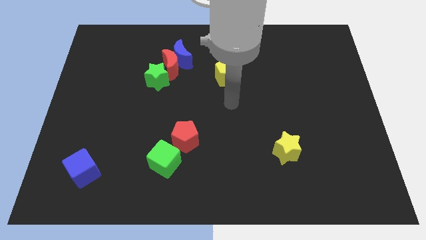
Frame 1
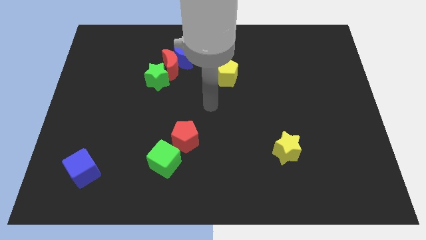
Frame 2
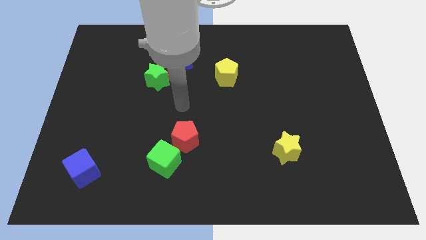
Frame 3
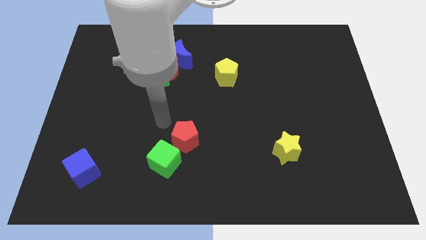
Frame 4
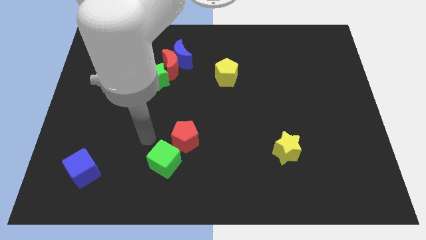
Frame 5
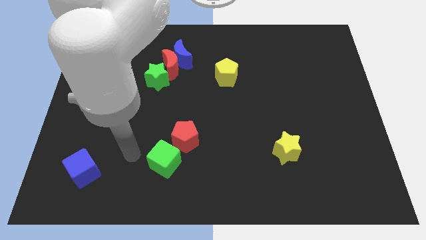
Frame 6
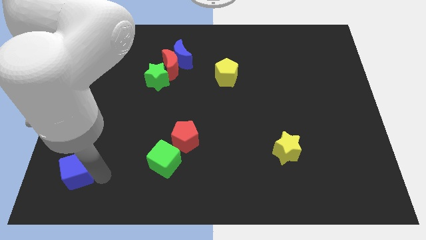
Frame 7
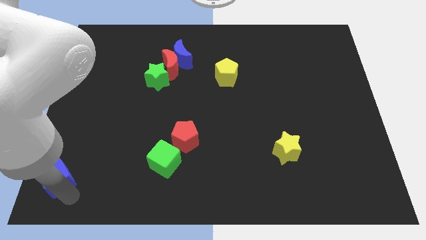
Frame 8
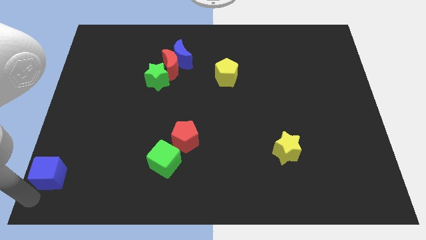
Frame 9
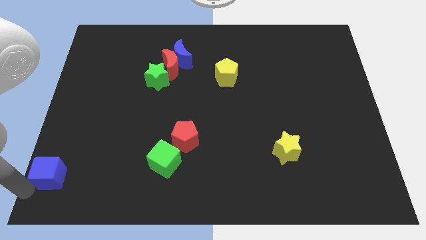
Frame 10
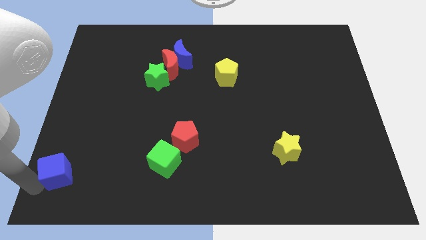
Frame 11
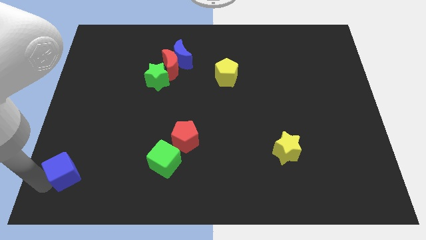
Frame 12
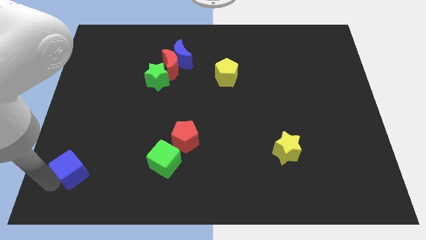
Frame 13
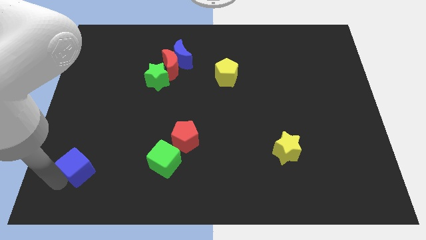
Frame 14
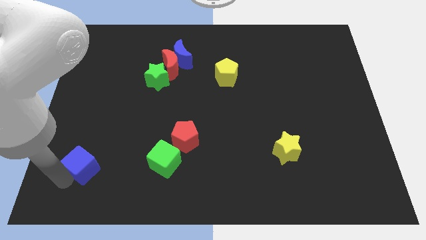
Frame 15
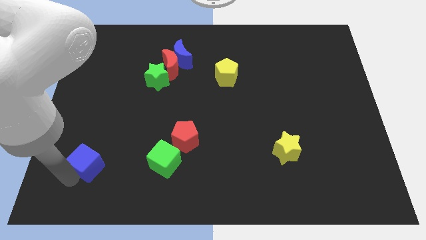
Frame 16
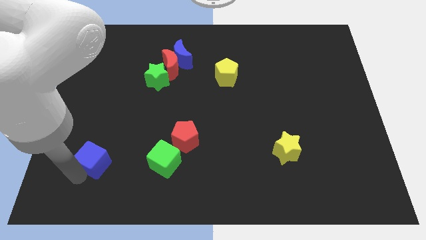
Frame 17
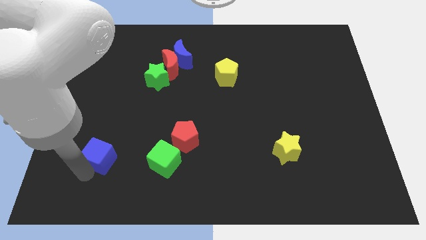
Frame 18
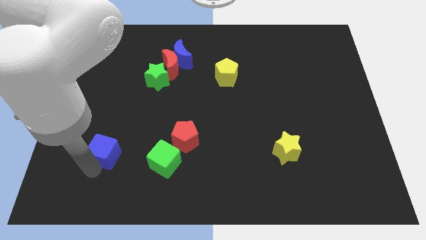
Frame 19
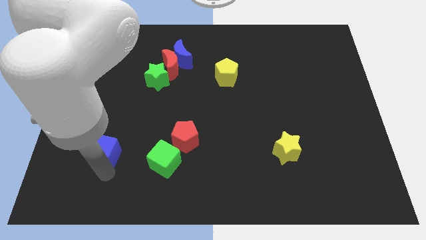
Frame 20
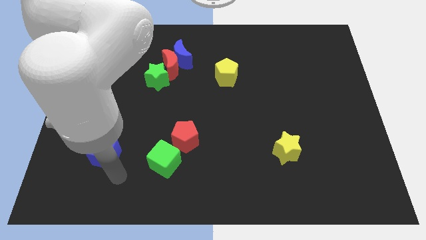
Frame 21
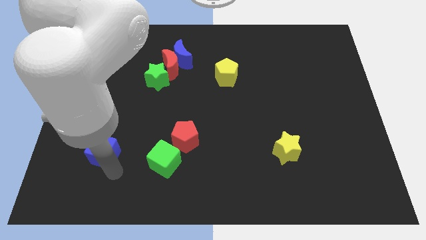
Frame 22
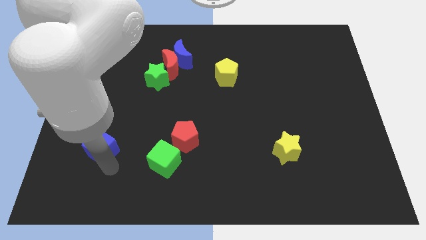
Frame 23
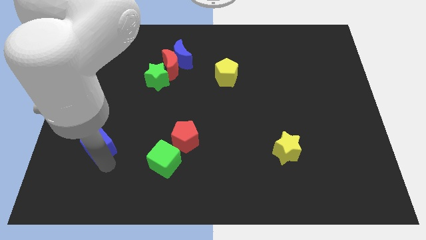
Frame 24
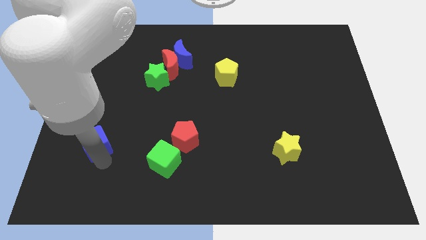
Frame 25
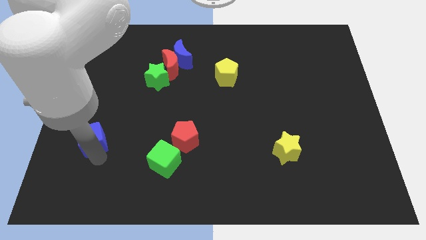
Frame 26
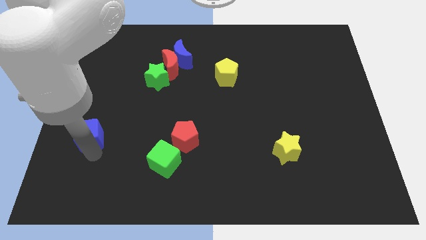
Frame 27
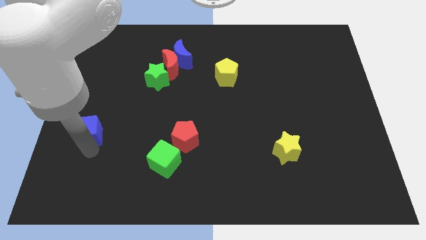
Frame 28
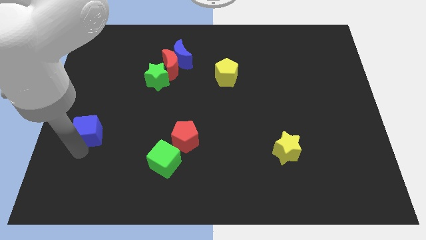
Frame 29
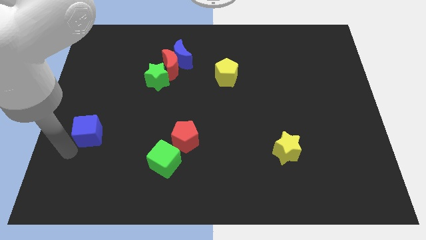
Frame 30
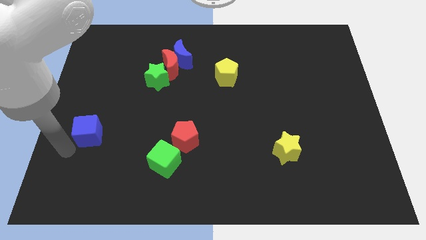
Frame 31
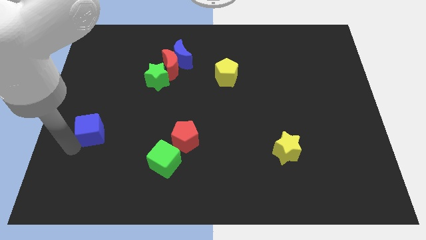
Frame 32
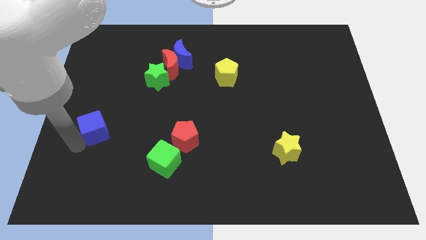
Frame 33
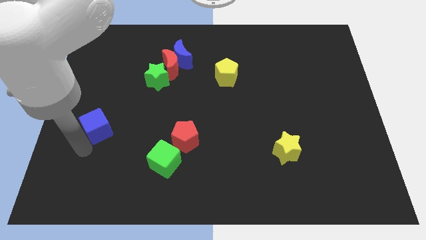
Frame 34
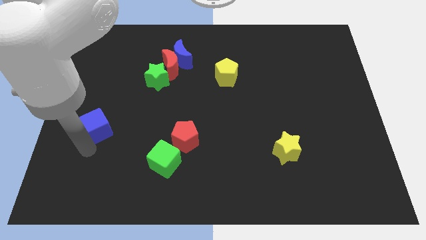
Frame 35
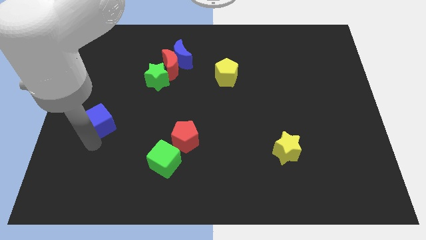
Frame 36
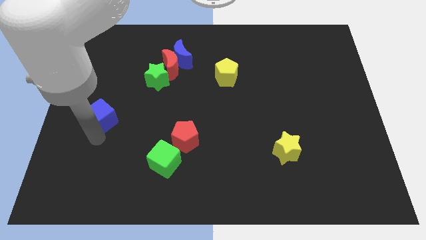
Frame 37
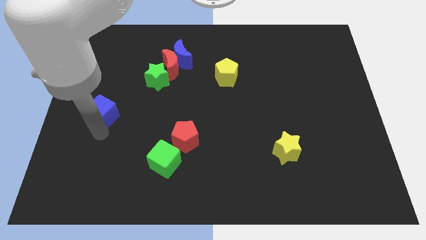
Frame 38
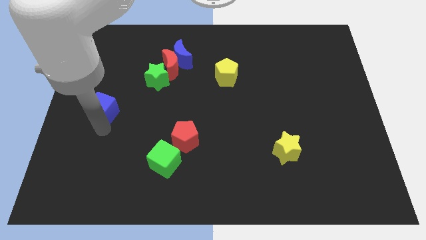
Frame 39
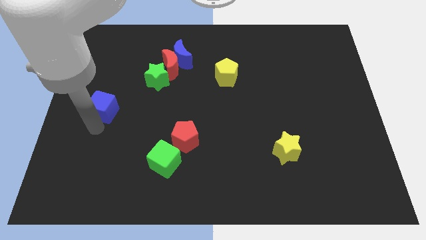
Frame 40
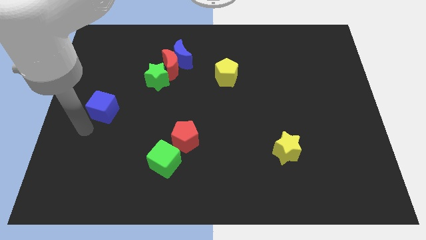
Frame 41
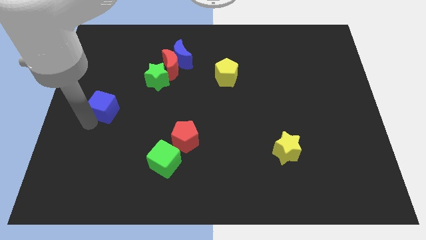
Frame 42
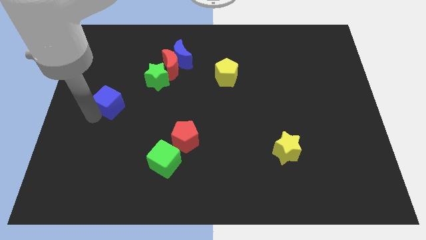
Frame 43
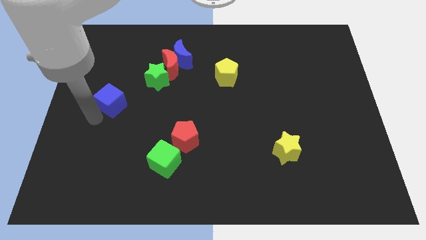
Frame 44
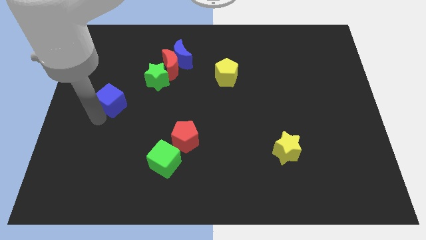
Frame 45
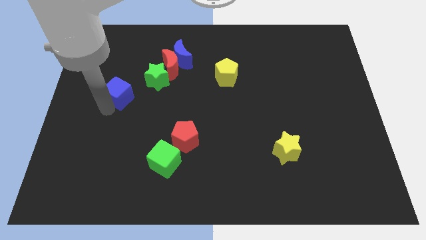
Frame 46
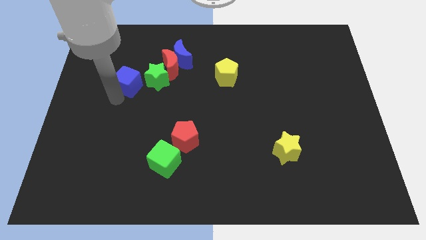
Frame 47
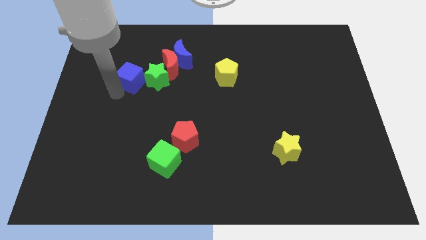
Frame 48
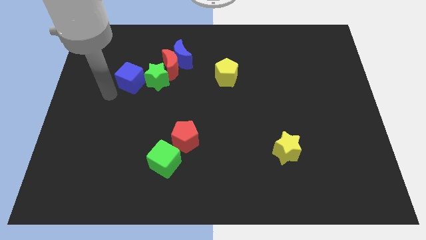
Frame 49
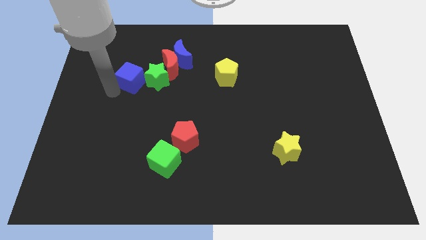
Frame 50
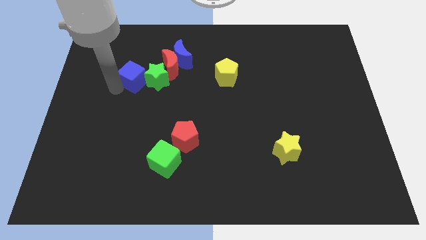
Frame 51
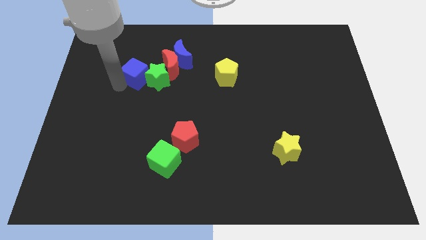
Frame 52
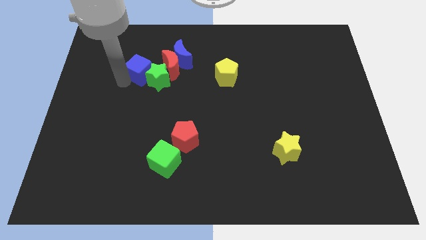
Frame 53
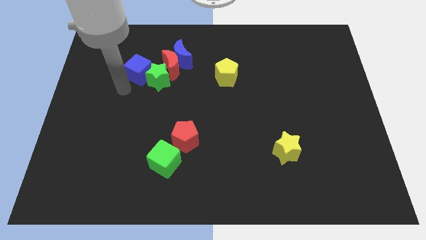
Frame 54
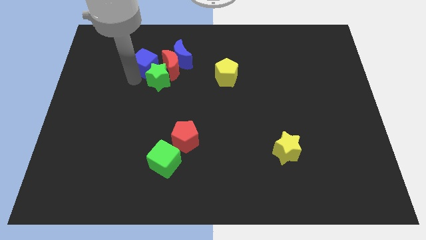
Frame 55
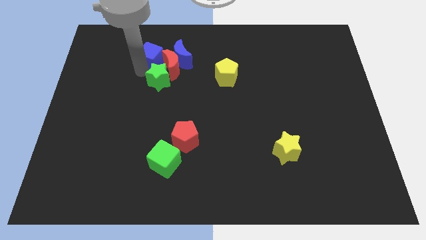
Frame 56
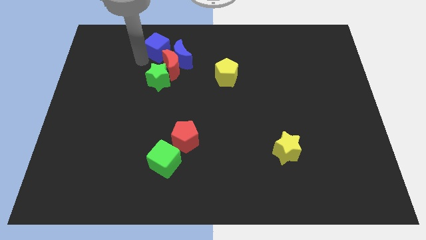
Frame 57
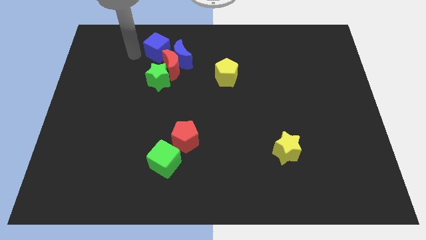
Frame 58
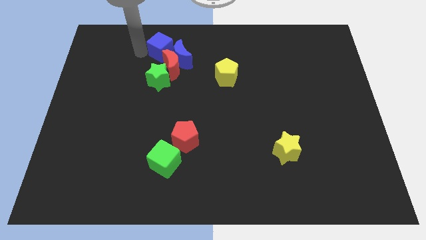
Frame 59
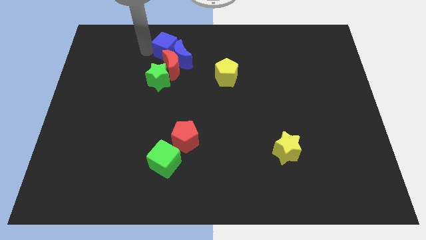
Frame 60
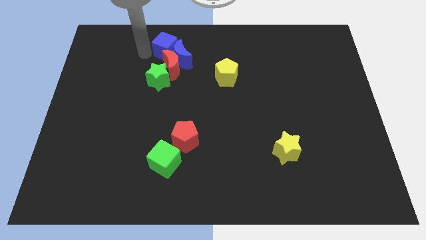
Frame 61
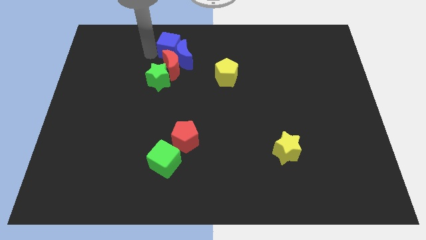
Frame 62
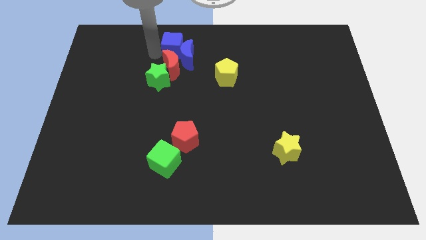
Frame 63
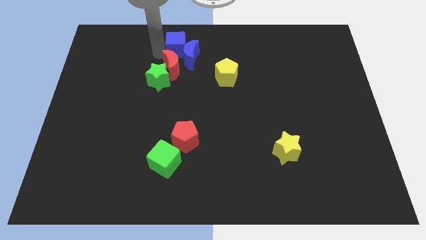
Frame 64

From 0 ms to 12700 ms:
move the blue cube to the top
